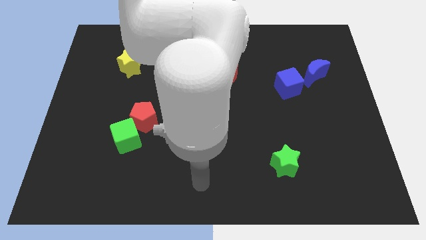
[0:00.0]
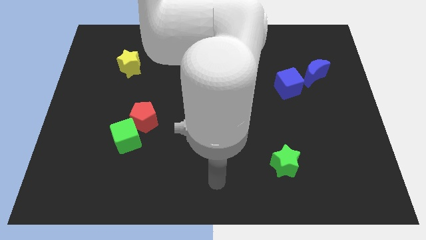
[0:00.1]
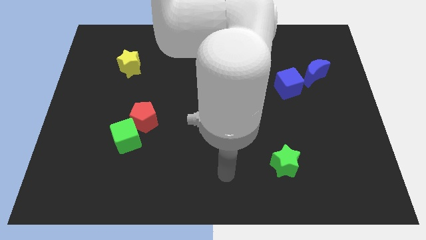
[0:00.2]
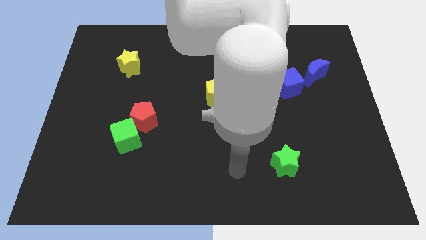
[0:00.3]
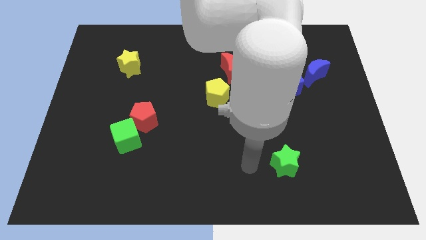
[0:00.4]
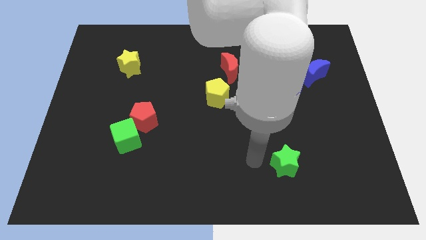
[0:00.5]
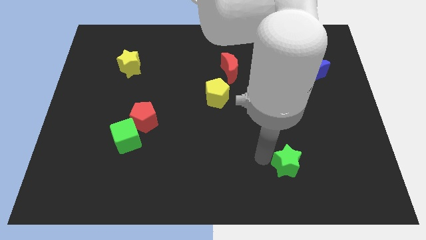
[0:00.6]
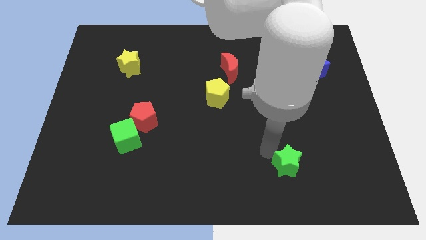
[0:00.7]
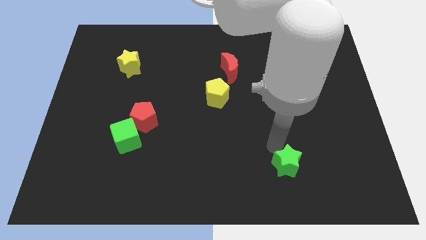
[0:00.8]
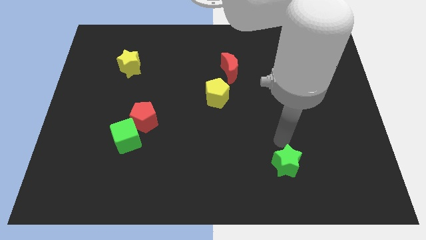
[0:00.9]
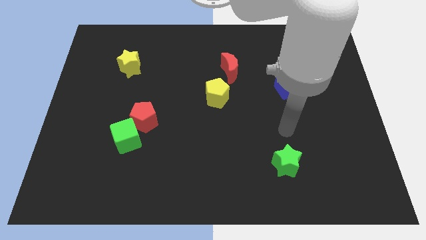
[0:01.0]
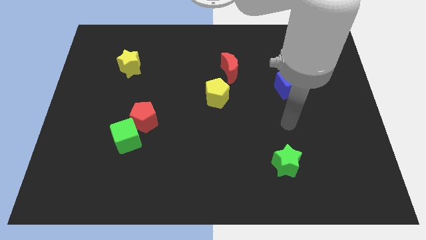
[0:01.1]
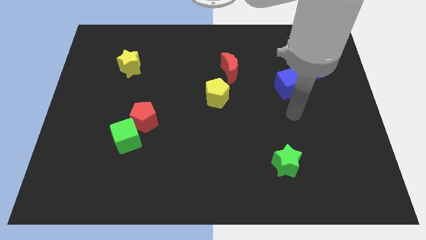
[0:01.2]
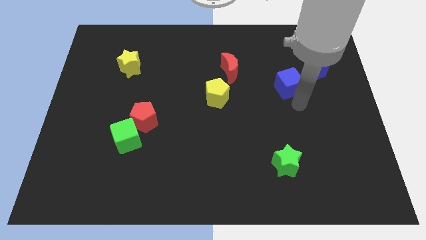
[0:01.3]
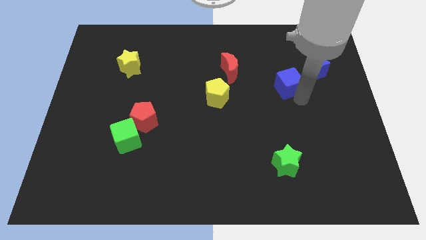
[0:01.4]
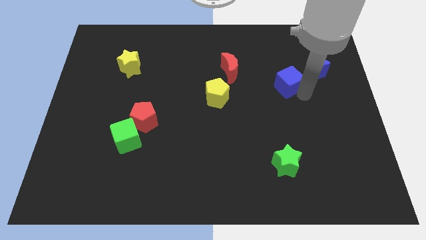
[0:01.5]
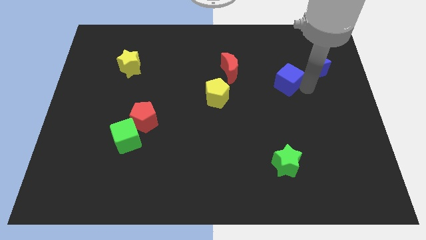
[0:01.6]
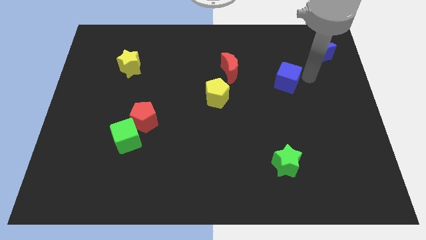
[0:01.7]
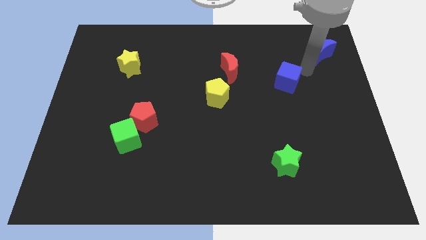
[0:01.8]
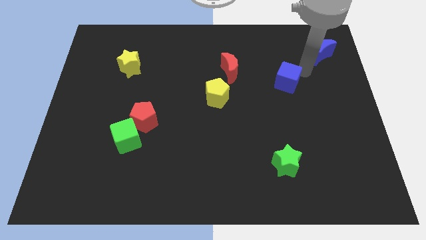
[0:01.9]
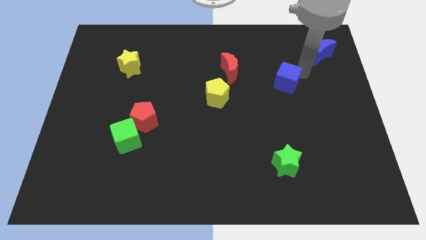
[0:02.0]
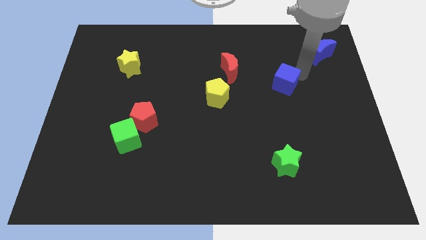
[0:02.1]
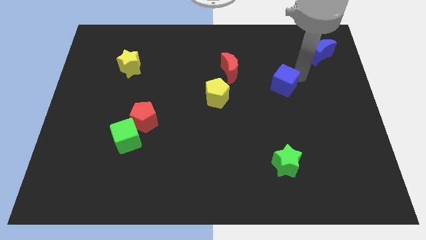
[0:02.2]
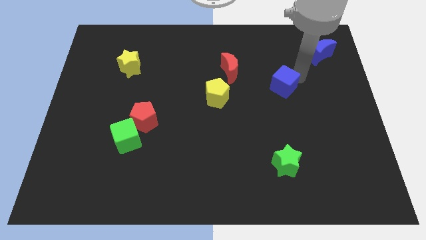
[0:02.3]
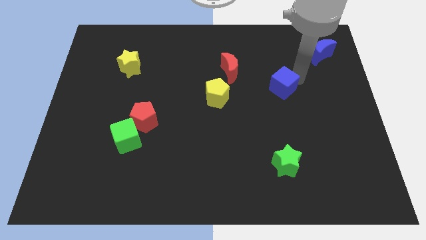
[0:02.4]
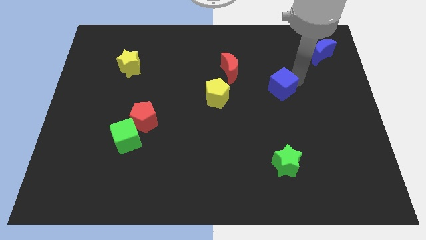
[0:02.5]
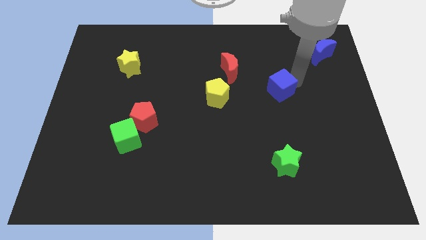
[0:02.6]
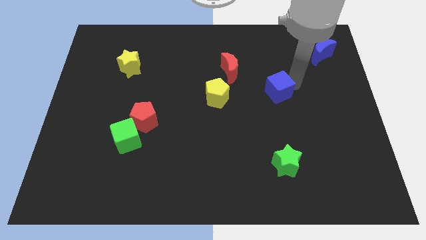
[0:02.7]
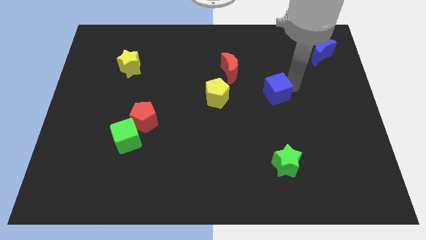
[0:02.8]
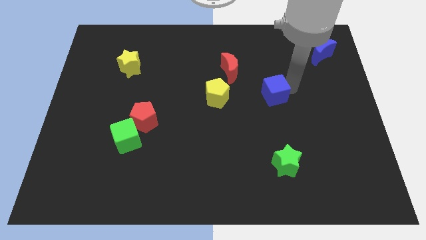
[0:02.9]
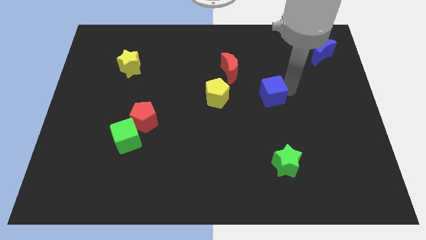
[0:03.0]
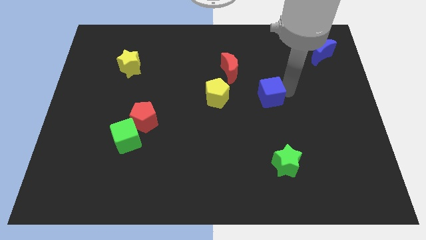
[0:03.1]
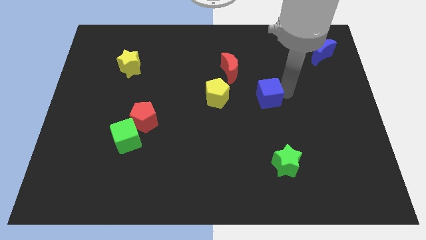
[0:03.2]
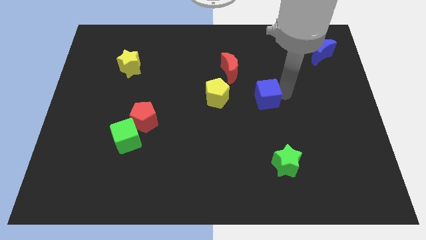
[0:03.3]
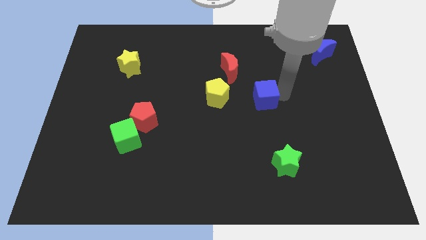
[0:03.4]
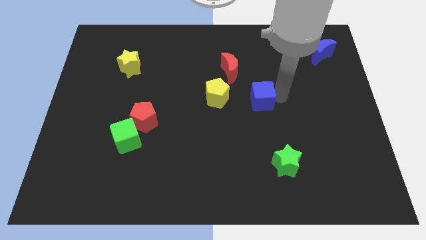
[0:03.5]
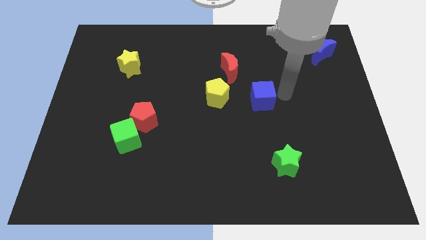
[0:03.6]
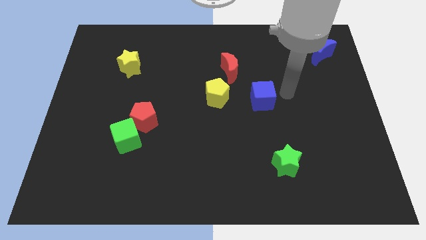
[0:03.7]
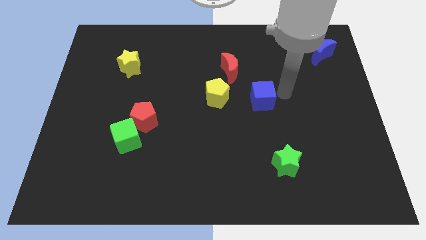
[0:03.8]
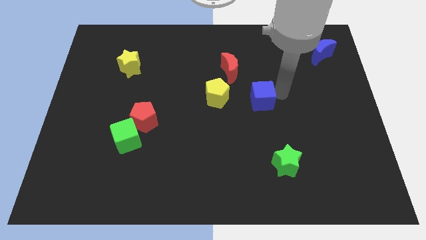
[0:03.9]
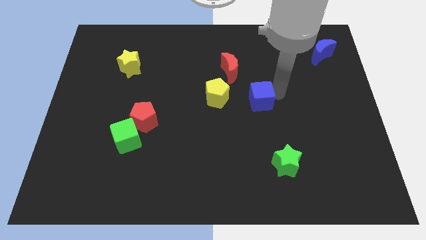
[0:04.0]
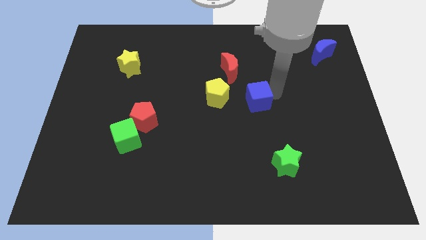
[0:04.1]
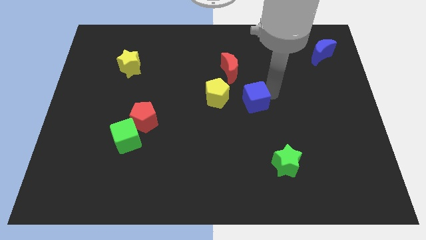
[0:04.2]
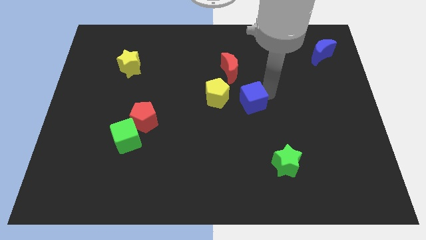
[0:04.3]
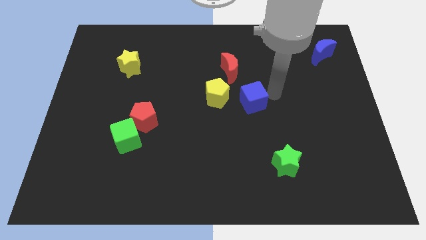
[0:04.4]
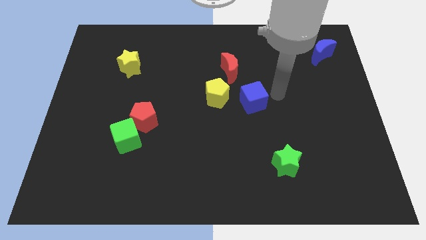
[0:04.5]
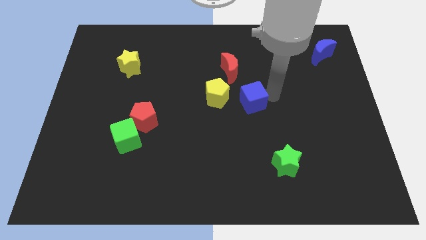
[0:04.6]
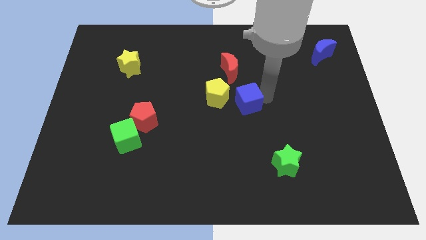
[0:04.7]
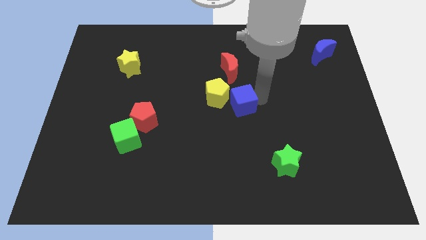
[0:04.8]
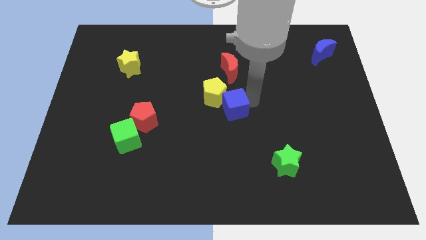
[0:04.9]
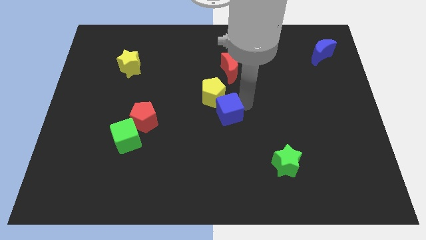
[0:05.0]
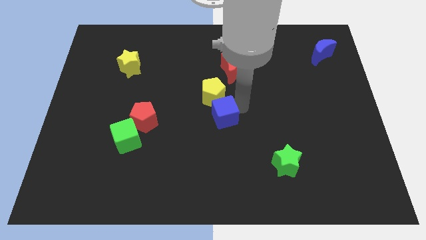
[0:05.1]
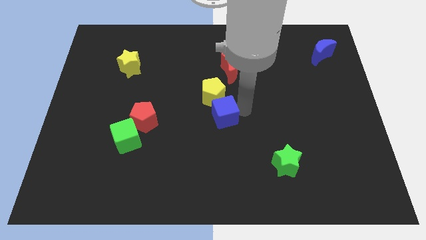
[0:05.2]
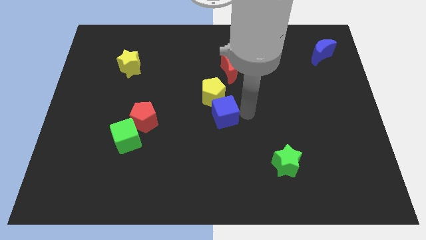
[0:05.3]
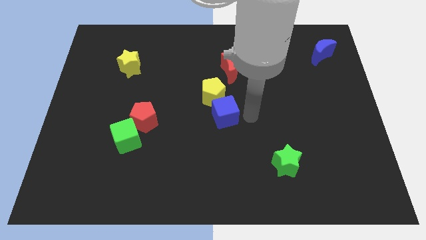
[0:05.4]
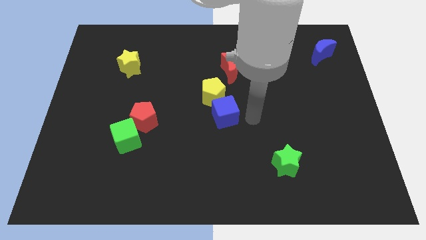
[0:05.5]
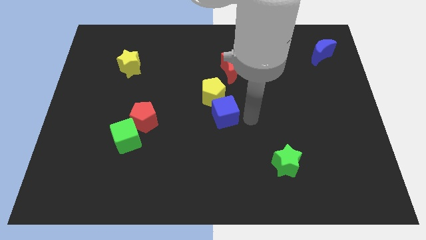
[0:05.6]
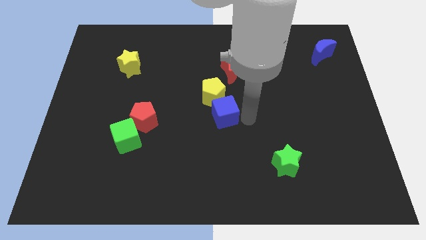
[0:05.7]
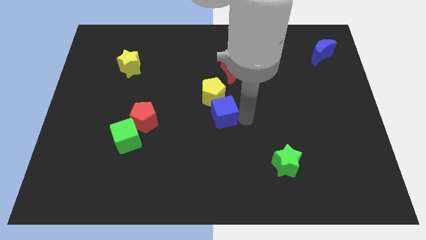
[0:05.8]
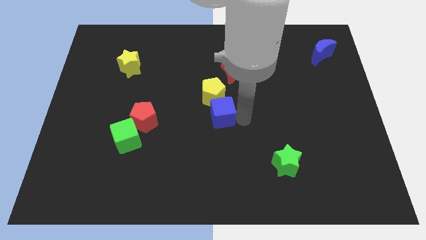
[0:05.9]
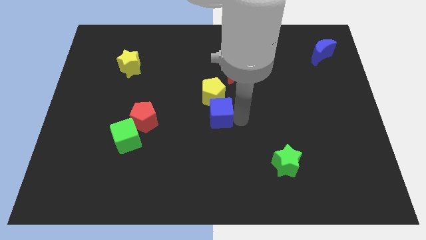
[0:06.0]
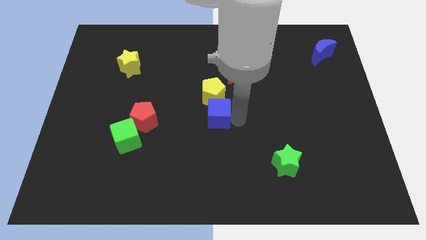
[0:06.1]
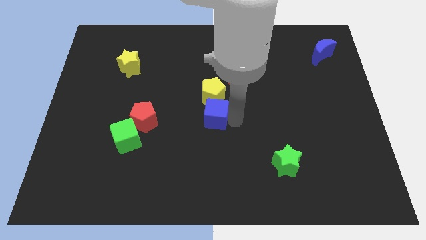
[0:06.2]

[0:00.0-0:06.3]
put the blue cube right of the red pentagon
